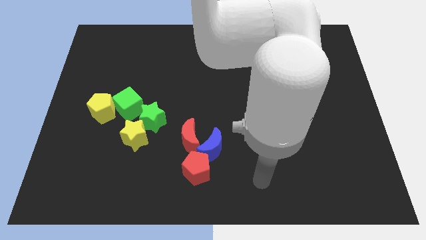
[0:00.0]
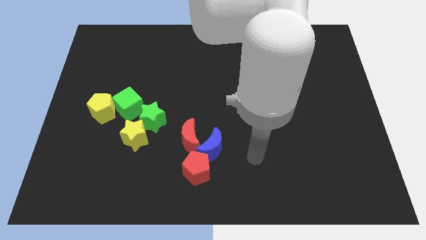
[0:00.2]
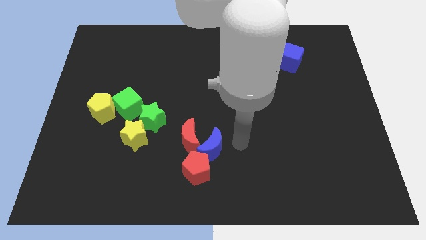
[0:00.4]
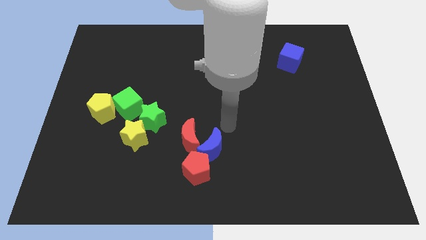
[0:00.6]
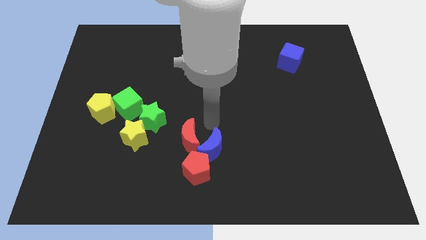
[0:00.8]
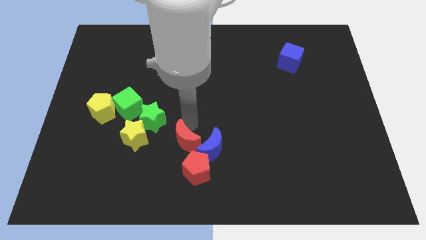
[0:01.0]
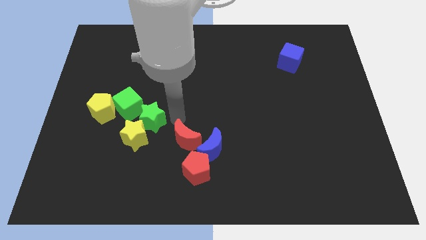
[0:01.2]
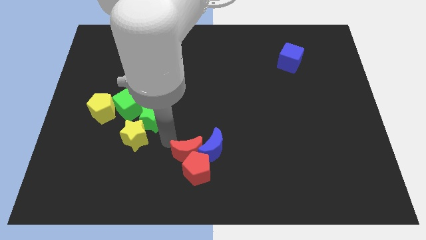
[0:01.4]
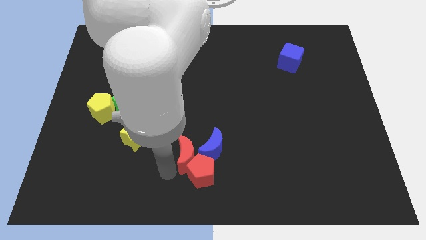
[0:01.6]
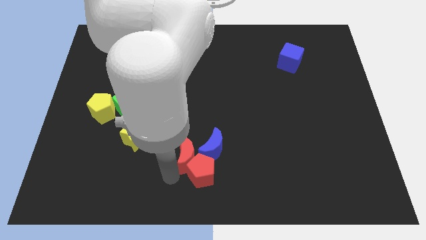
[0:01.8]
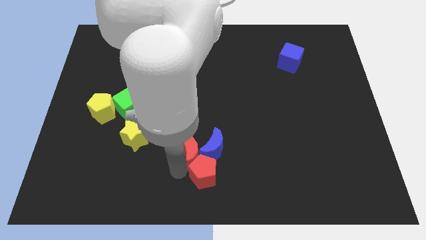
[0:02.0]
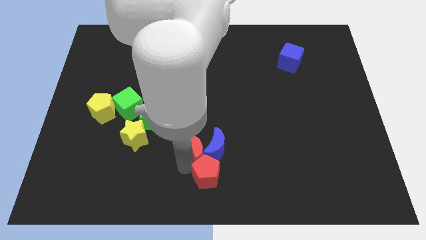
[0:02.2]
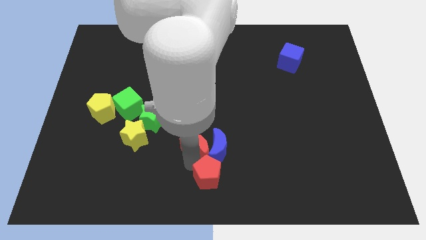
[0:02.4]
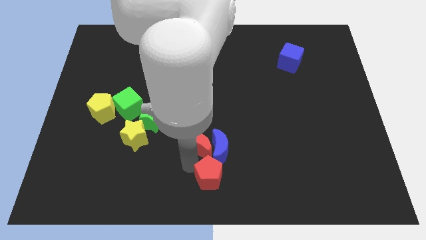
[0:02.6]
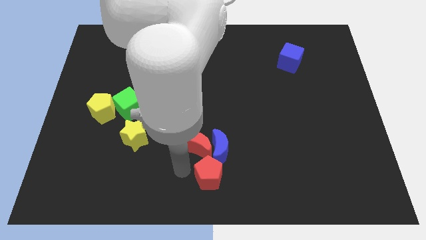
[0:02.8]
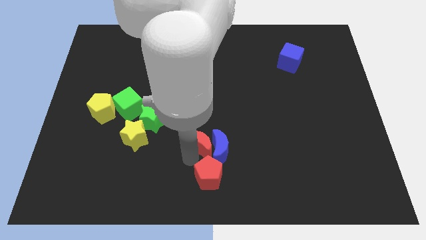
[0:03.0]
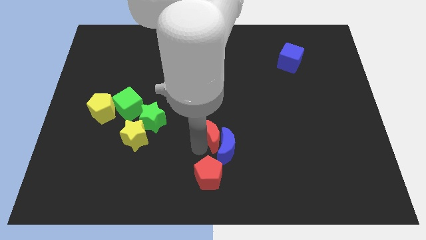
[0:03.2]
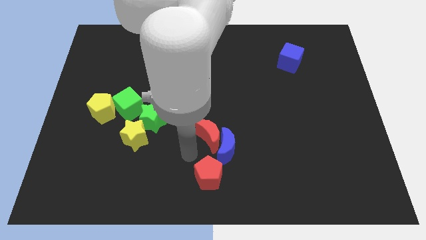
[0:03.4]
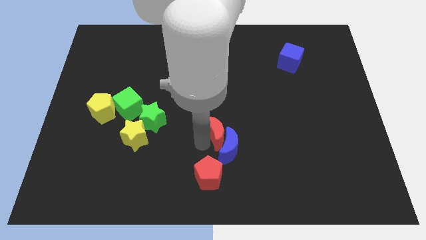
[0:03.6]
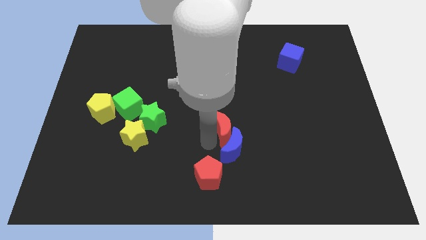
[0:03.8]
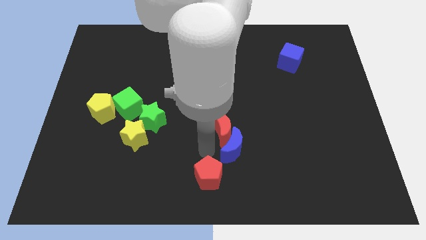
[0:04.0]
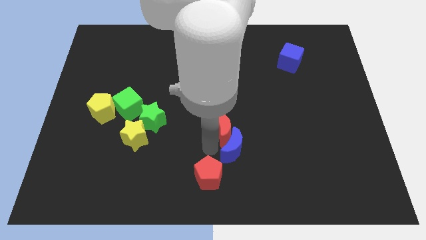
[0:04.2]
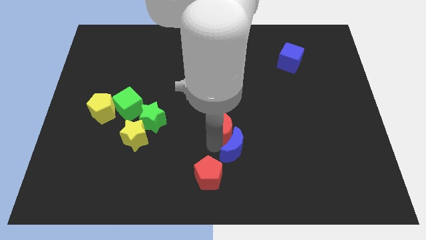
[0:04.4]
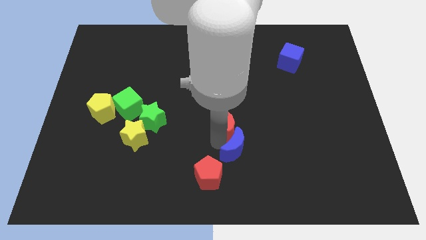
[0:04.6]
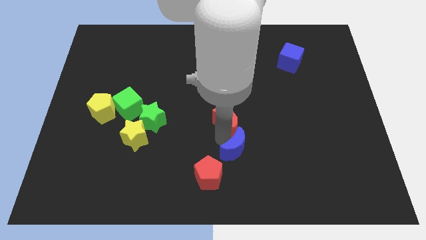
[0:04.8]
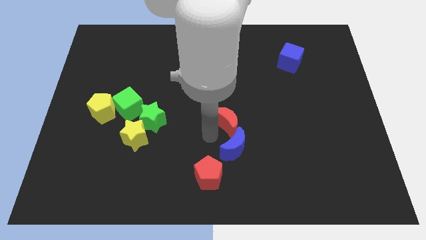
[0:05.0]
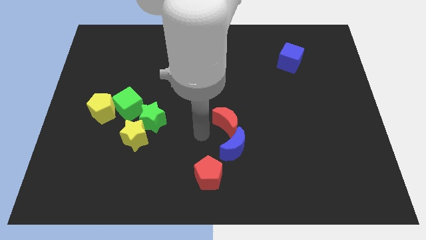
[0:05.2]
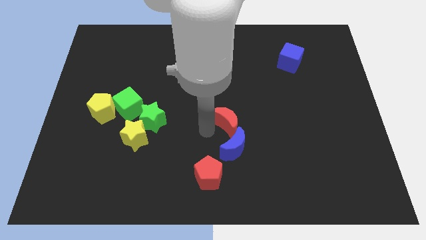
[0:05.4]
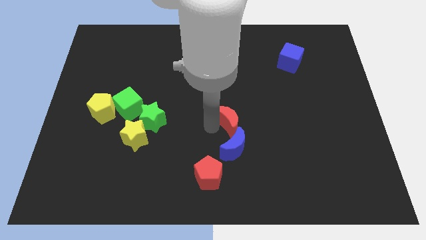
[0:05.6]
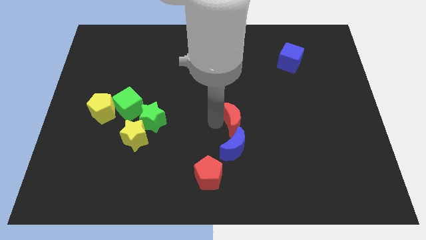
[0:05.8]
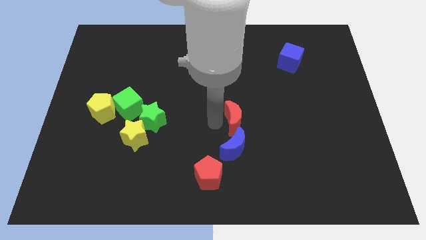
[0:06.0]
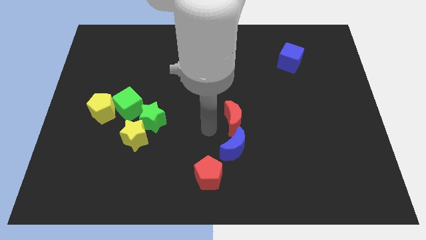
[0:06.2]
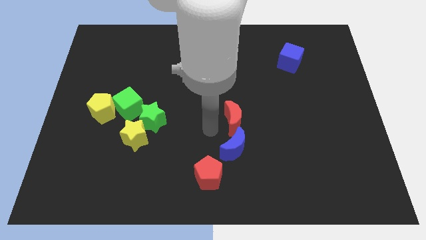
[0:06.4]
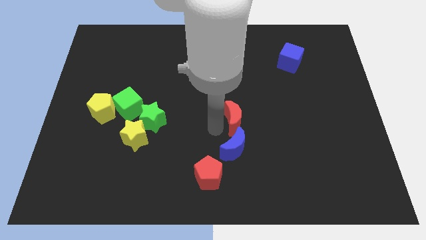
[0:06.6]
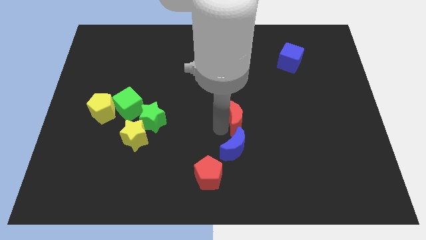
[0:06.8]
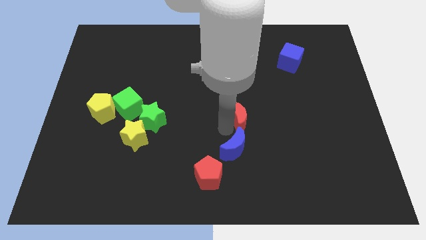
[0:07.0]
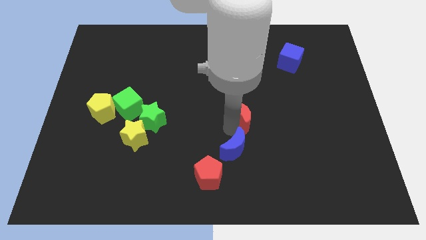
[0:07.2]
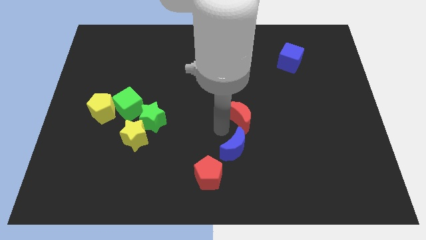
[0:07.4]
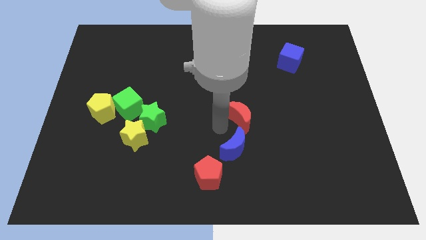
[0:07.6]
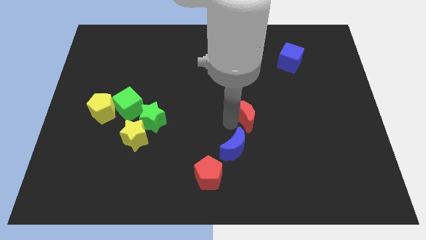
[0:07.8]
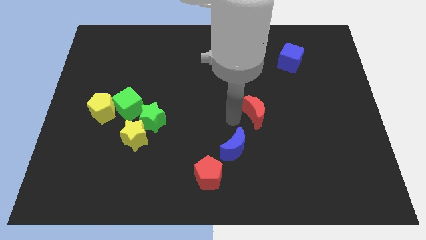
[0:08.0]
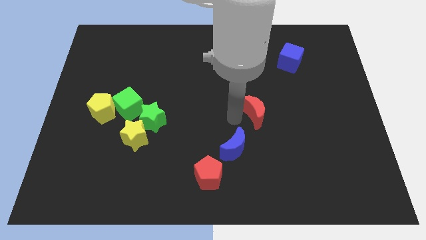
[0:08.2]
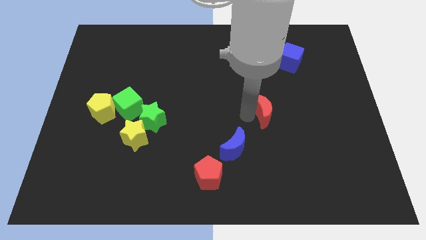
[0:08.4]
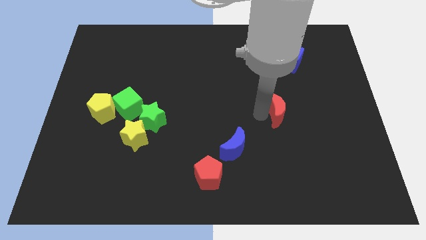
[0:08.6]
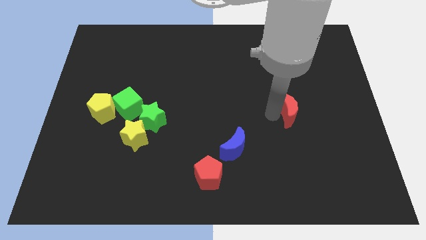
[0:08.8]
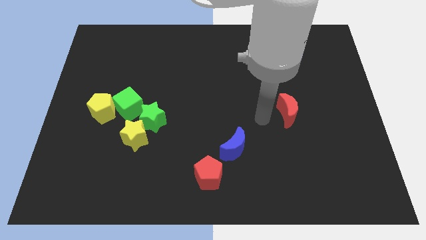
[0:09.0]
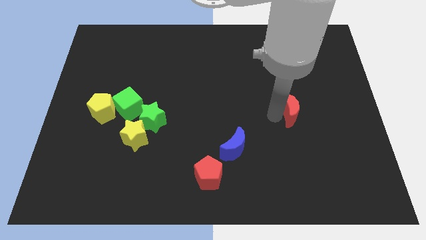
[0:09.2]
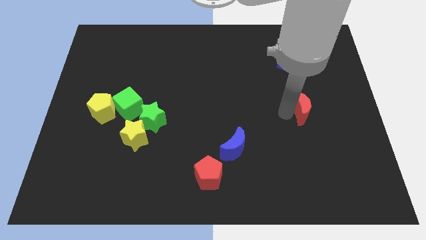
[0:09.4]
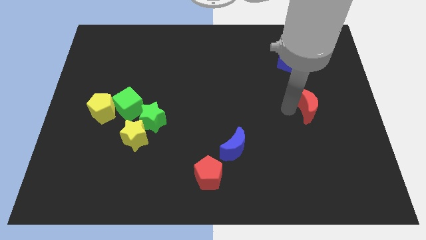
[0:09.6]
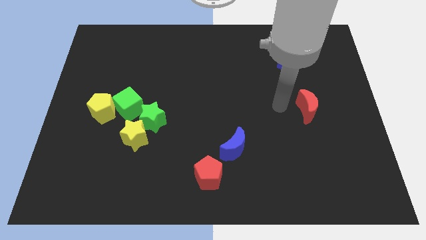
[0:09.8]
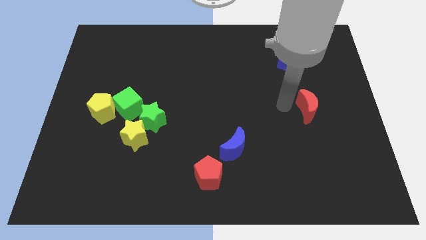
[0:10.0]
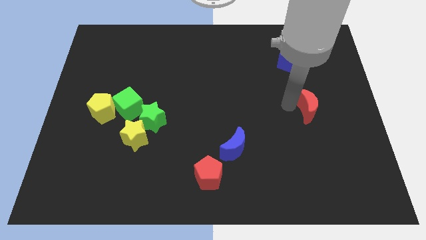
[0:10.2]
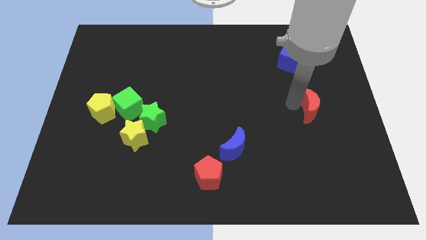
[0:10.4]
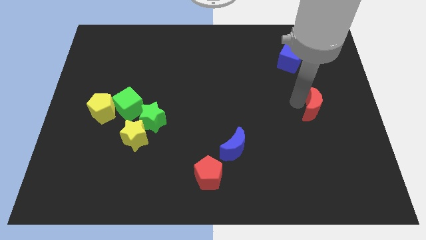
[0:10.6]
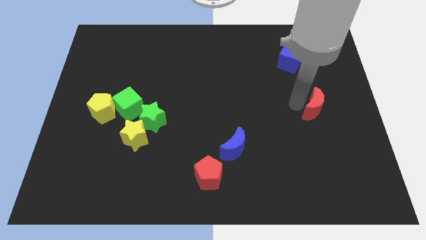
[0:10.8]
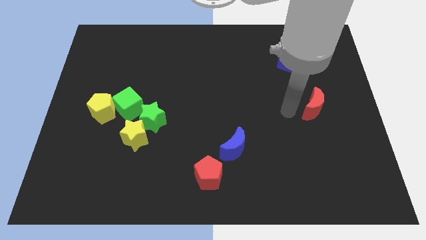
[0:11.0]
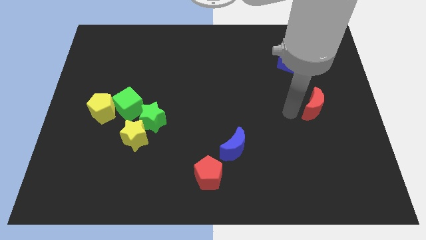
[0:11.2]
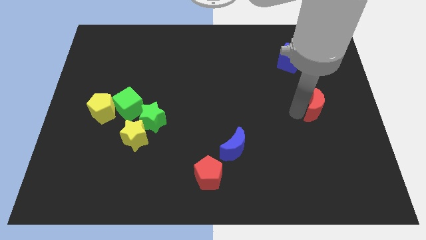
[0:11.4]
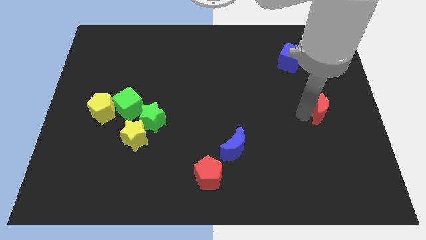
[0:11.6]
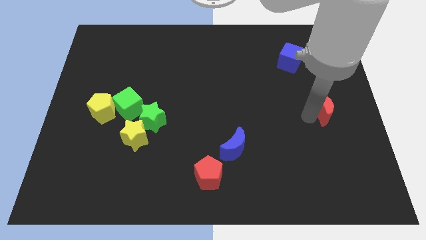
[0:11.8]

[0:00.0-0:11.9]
move the red moon to the right side
